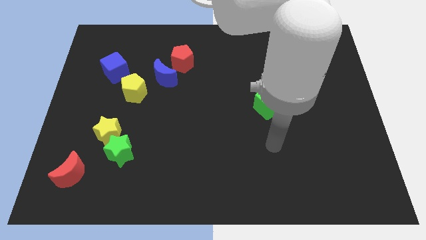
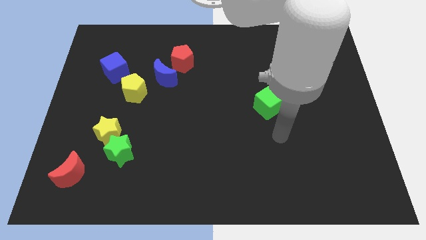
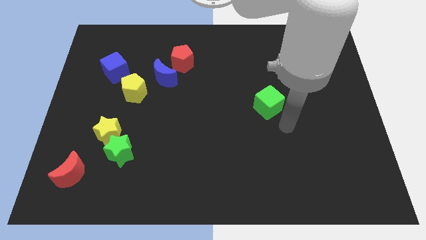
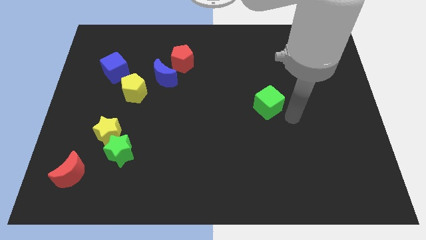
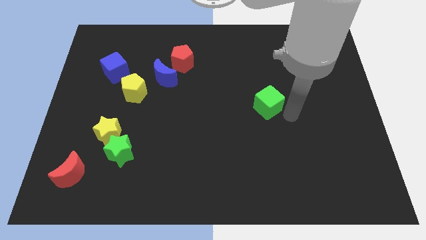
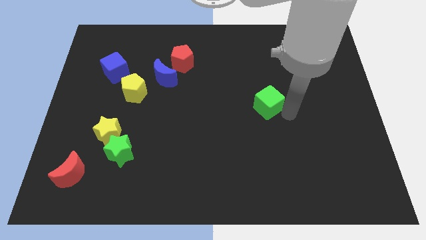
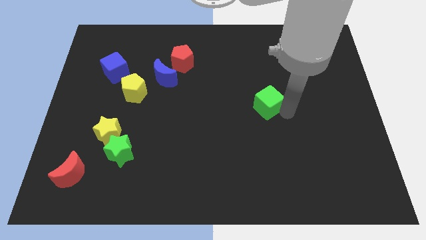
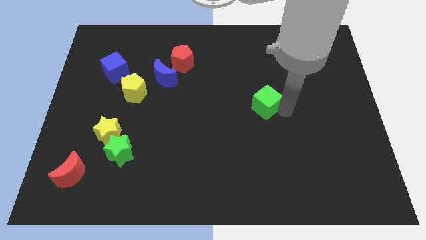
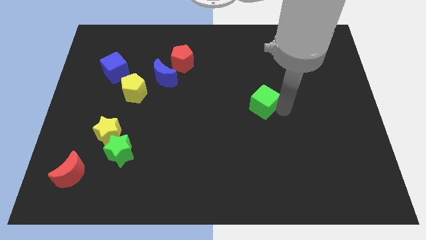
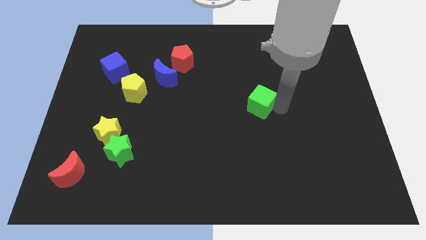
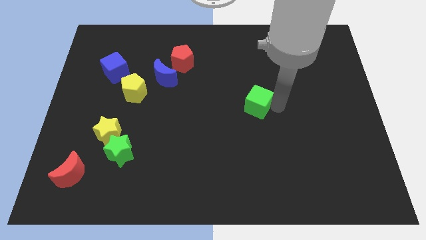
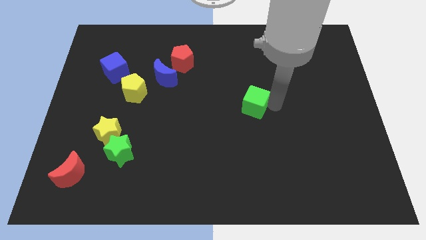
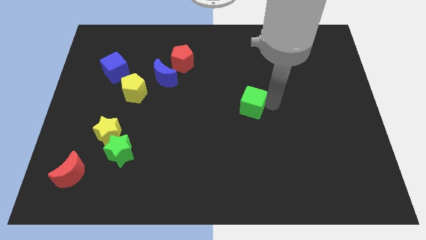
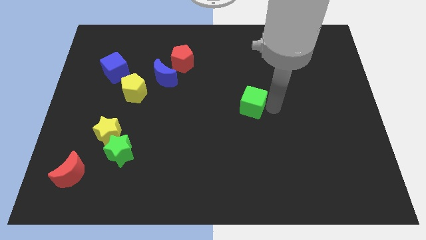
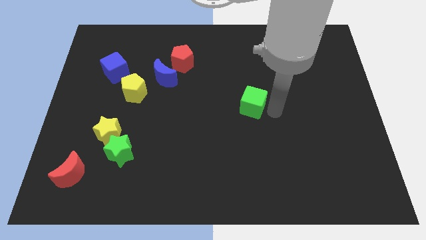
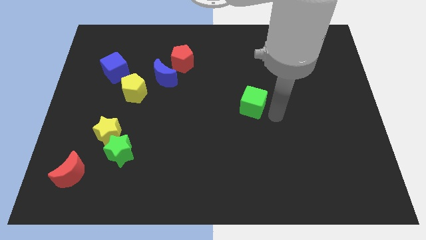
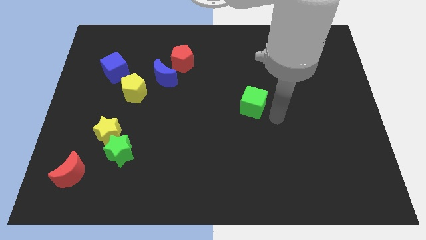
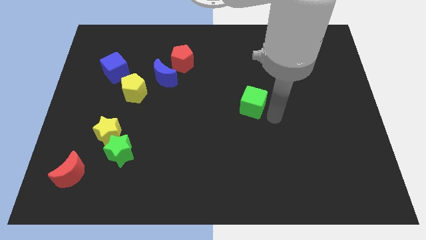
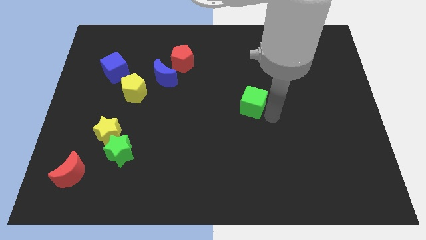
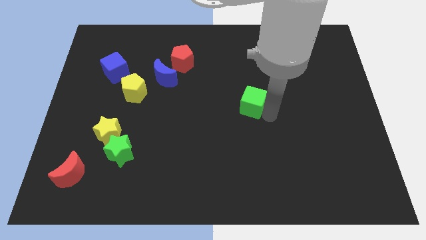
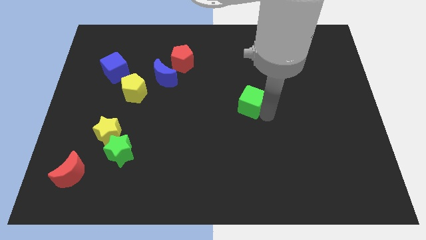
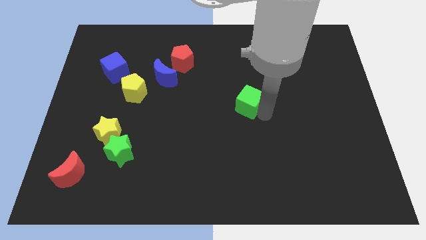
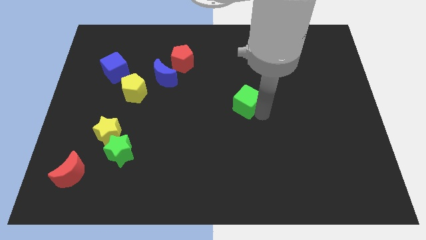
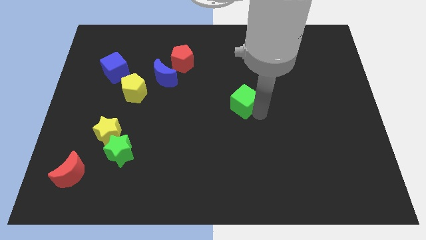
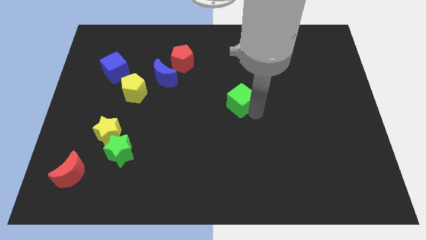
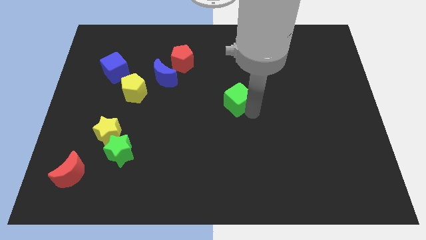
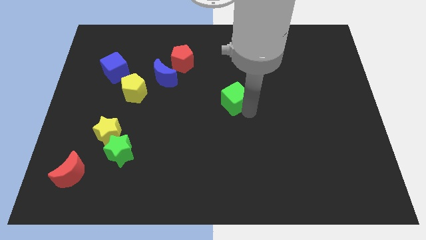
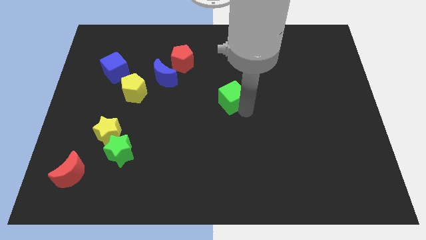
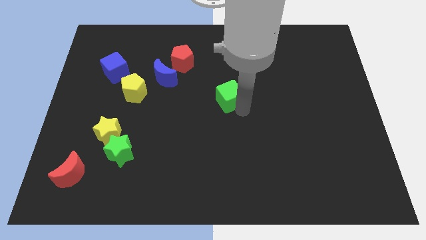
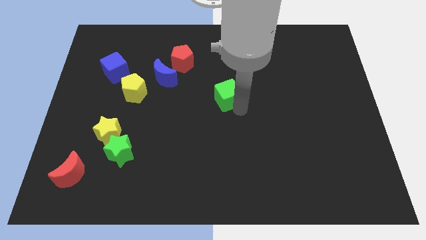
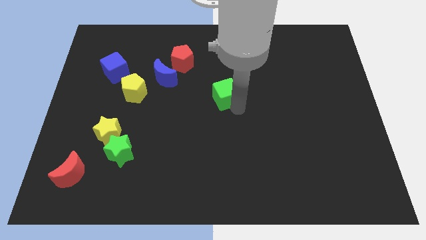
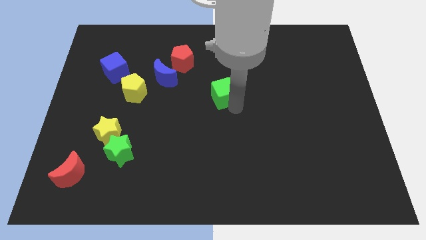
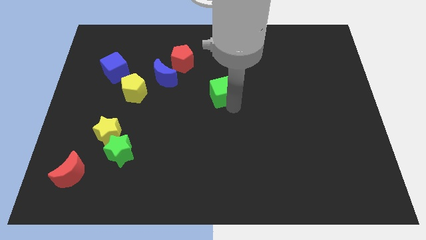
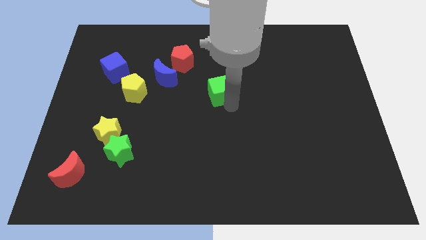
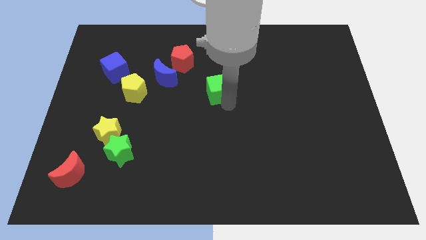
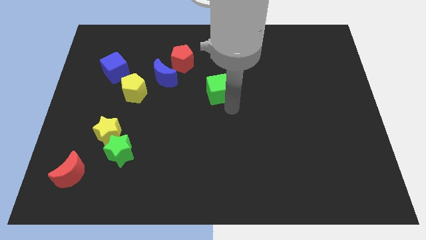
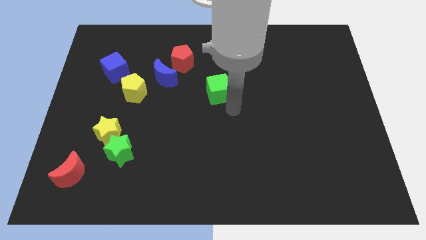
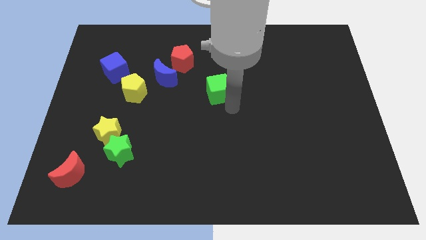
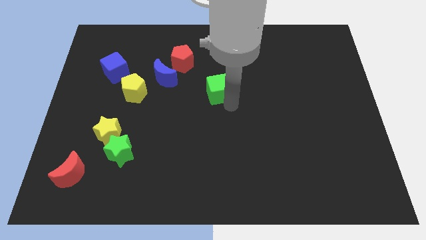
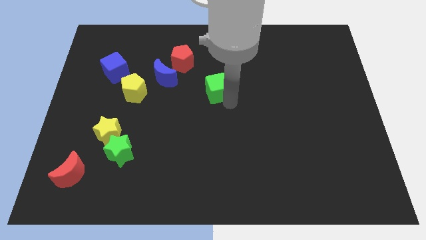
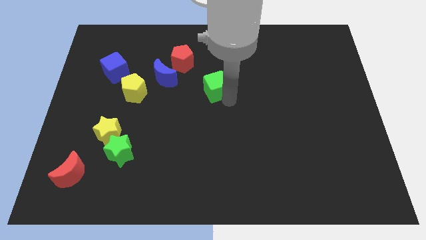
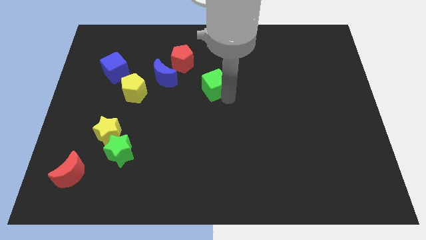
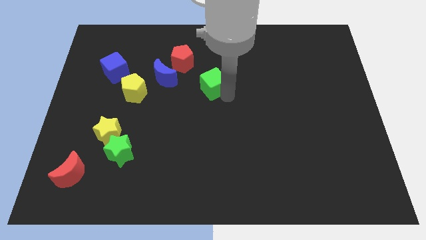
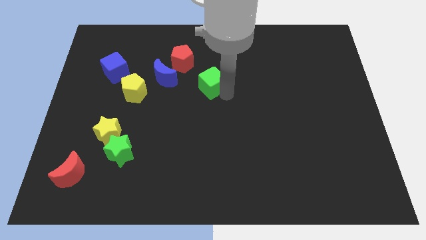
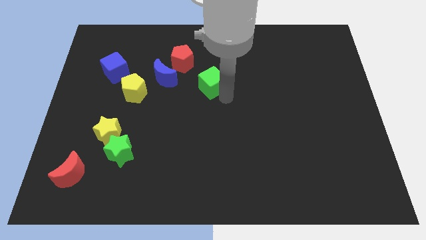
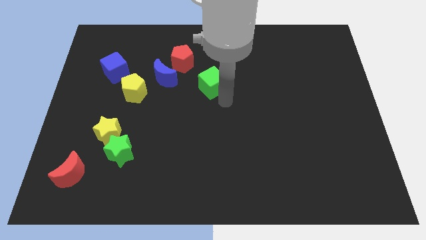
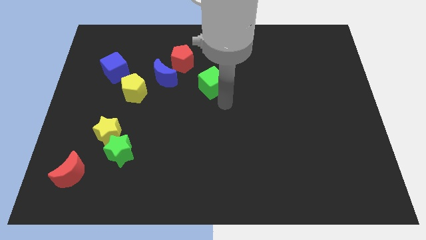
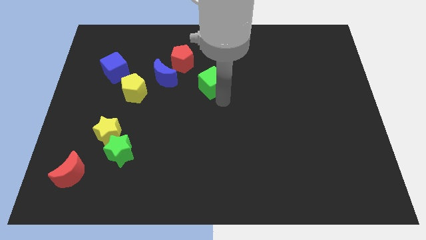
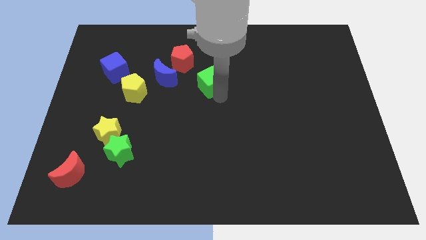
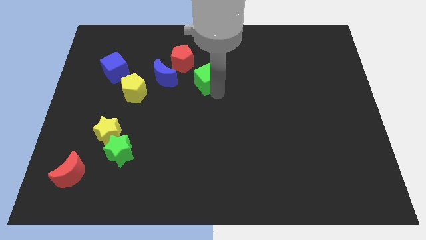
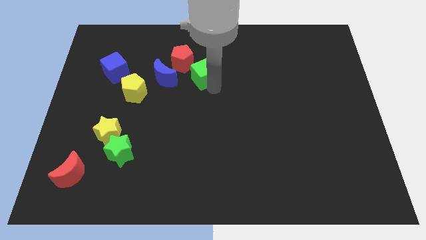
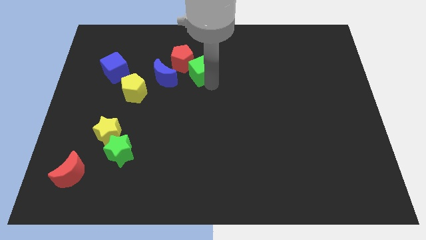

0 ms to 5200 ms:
put the green cube close to the red pentagon

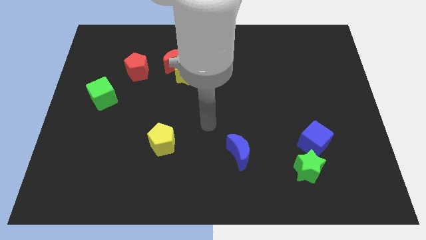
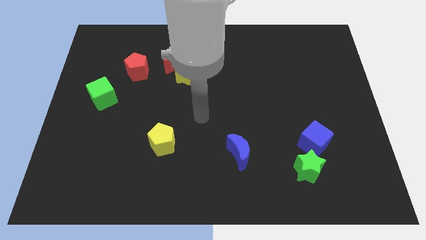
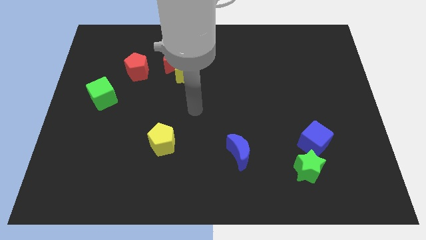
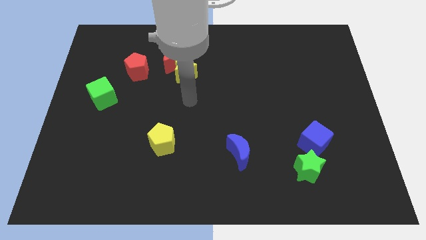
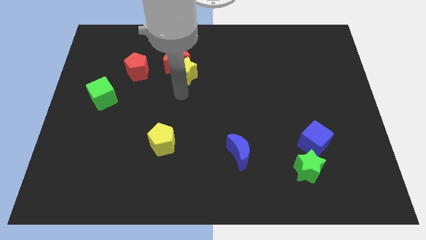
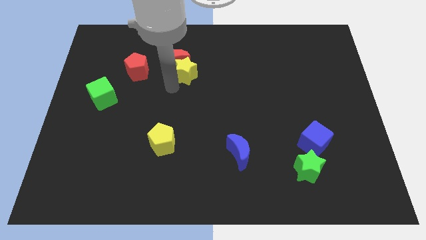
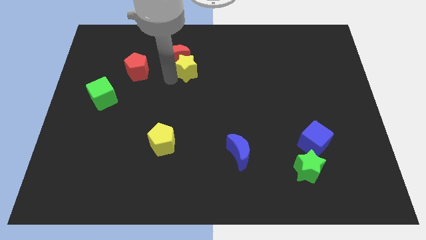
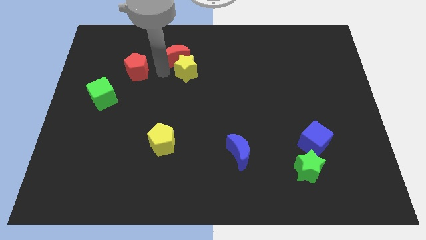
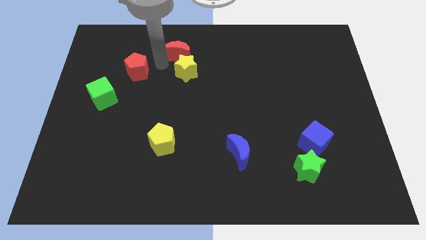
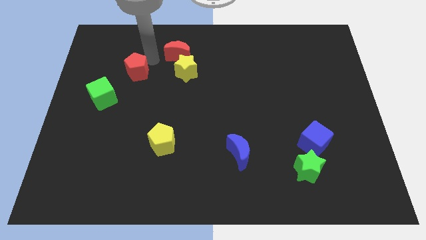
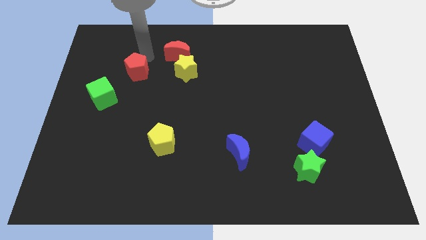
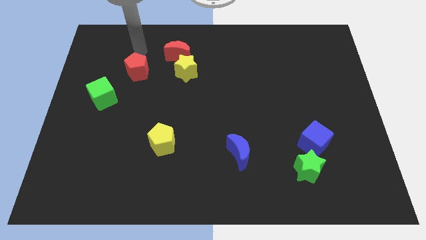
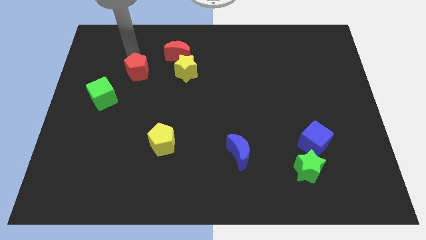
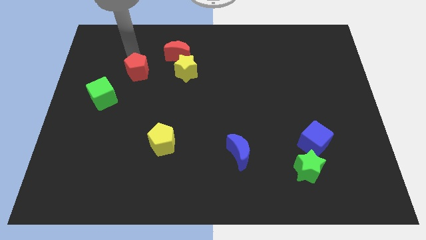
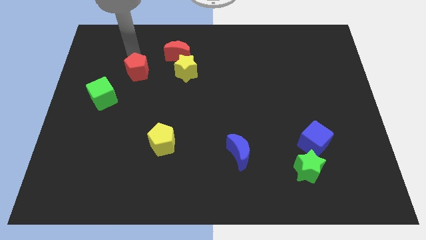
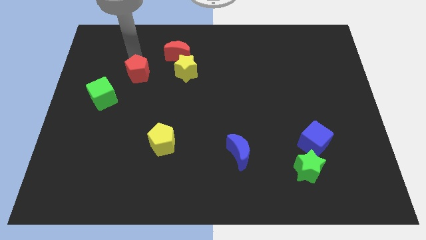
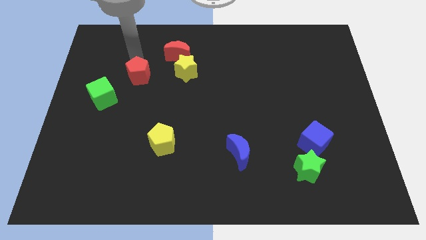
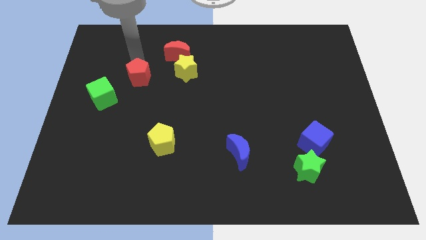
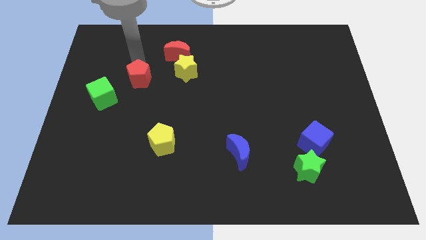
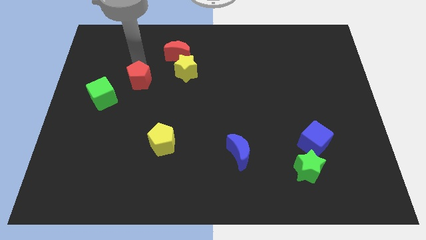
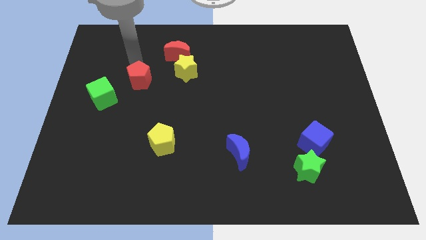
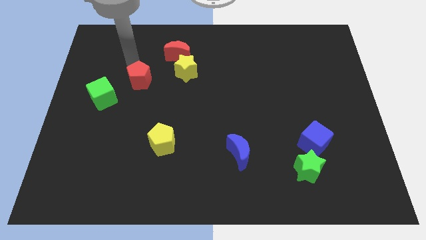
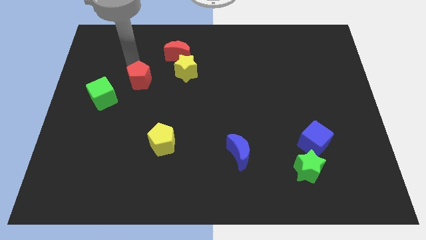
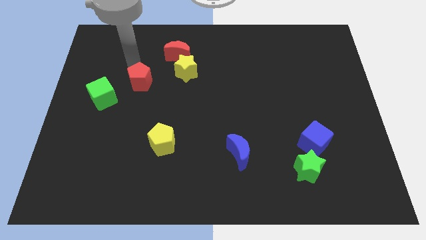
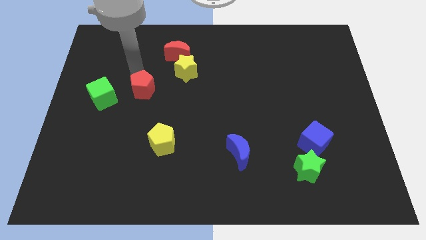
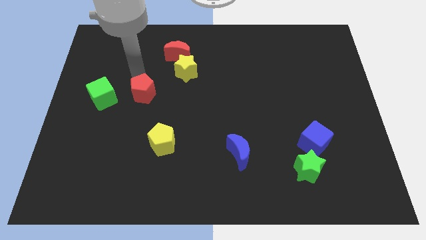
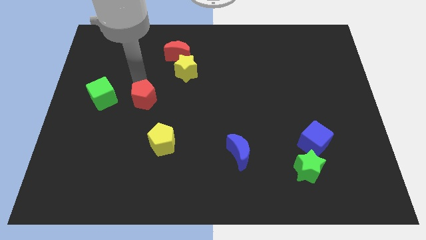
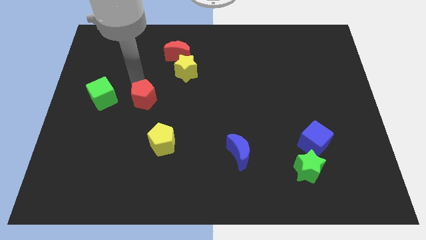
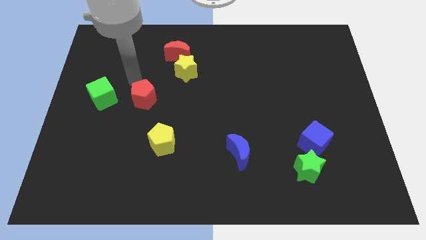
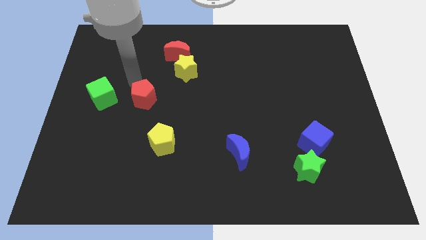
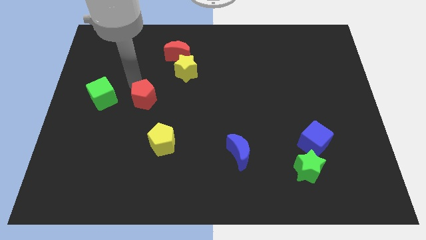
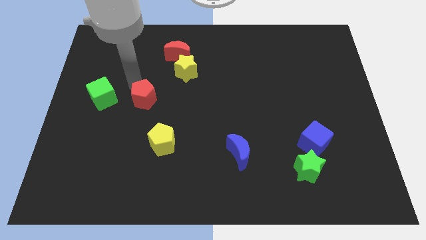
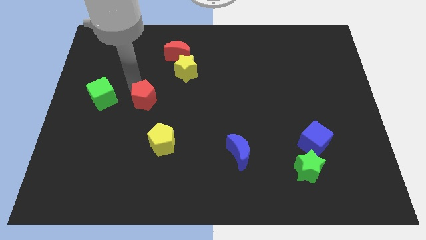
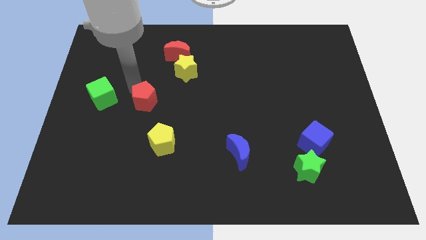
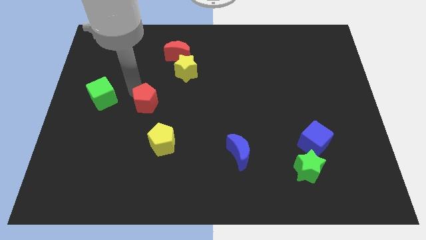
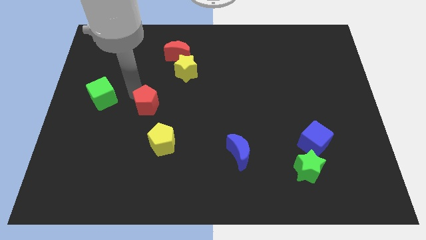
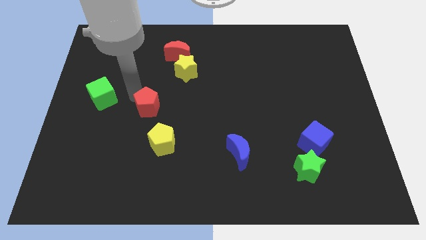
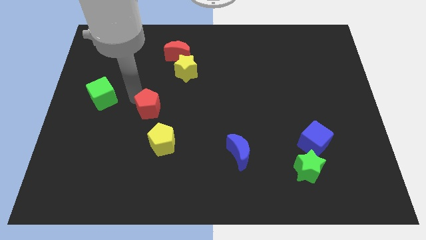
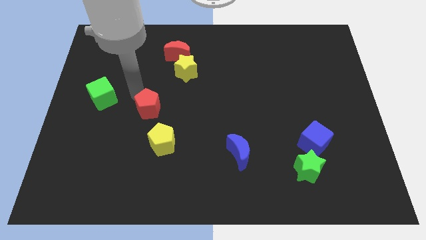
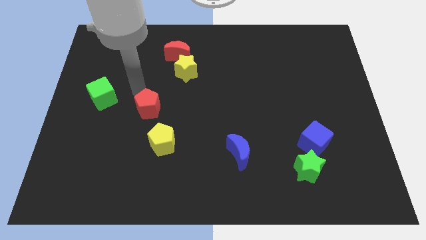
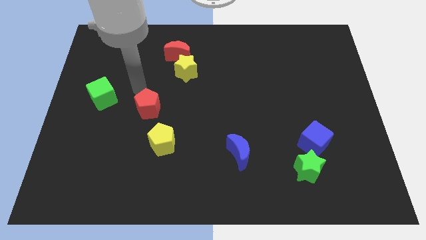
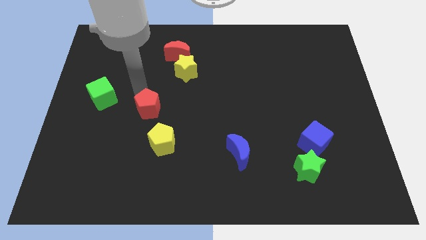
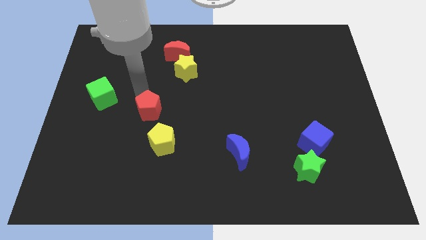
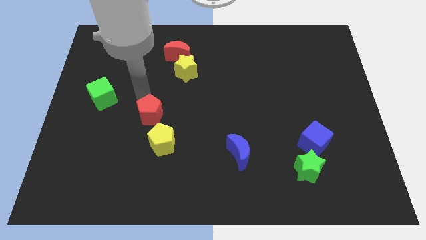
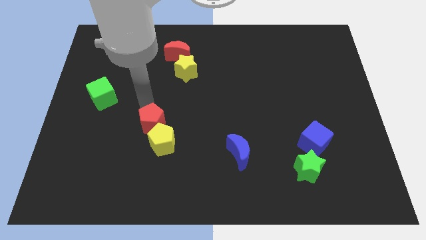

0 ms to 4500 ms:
put the red pentagon next to the yellow pentagon
